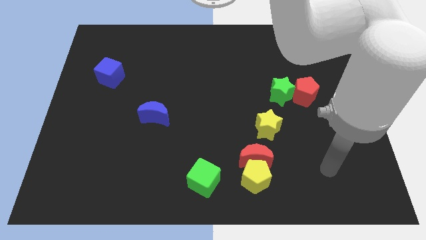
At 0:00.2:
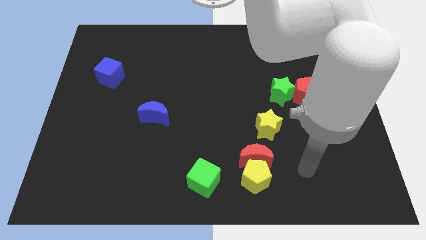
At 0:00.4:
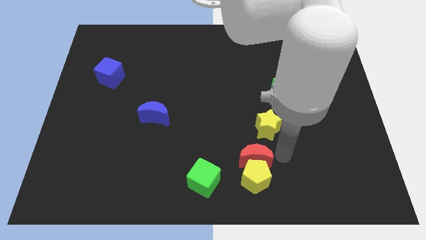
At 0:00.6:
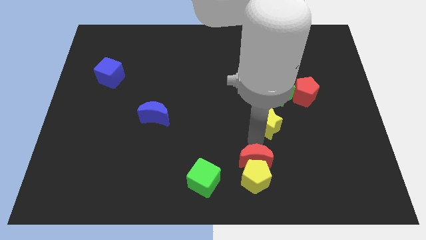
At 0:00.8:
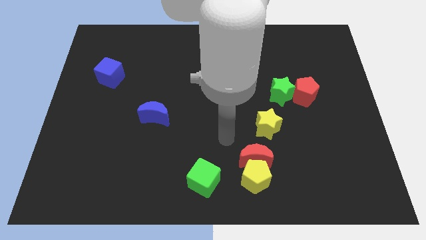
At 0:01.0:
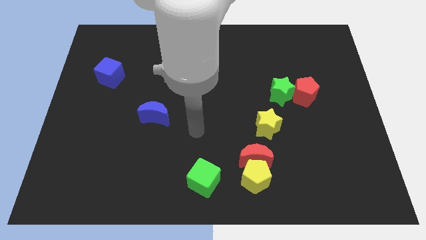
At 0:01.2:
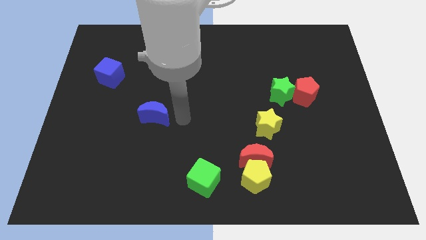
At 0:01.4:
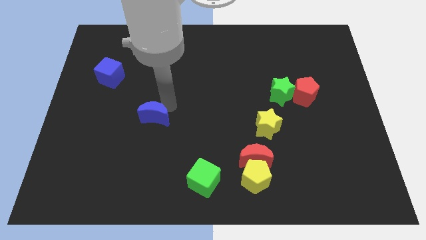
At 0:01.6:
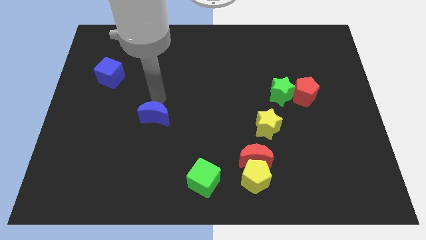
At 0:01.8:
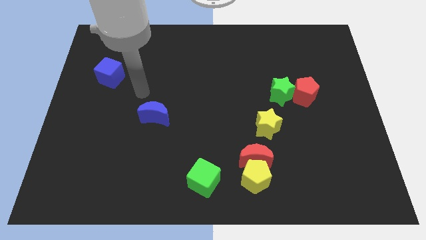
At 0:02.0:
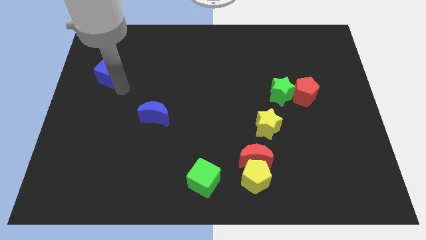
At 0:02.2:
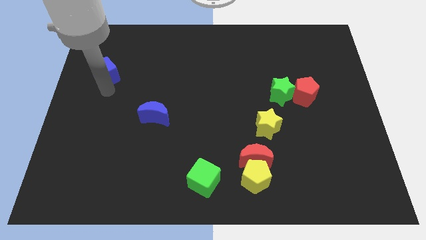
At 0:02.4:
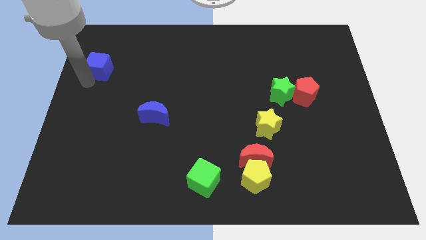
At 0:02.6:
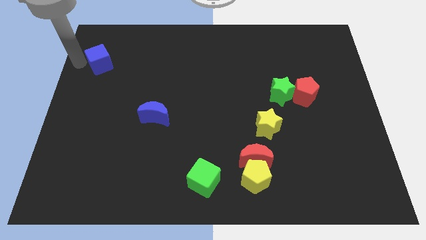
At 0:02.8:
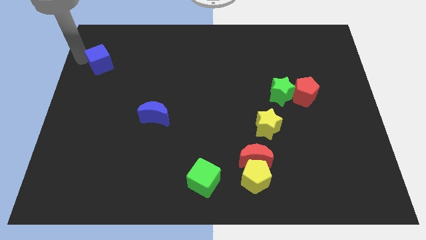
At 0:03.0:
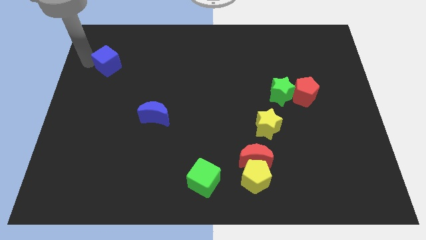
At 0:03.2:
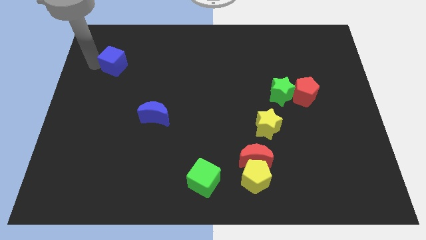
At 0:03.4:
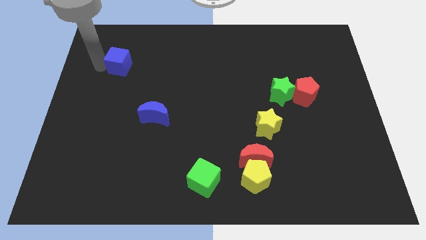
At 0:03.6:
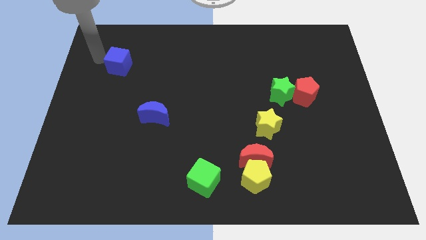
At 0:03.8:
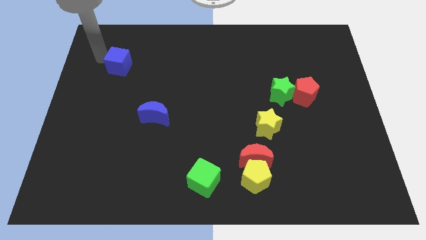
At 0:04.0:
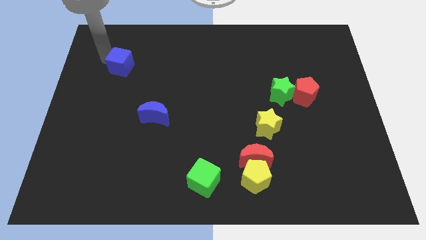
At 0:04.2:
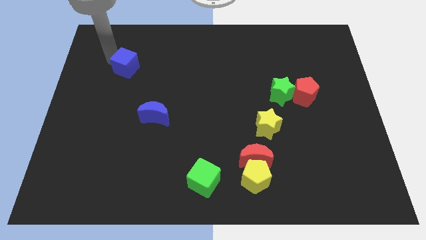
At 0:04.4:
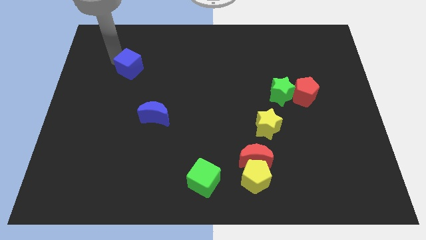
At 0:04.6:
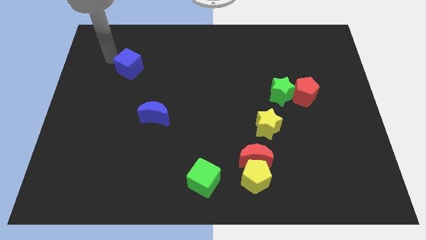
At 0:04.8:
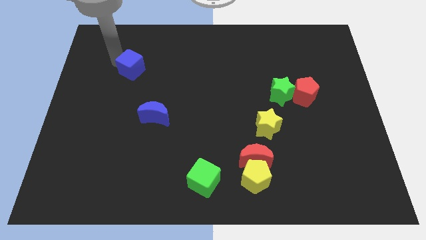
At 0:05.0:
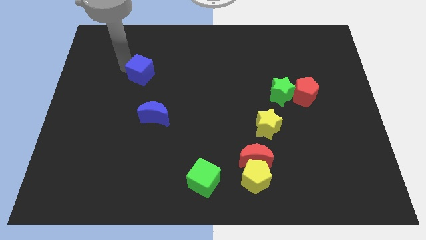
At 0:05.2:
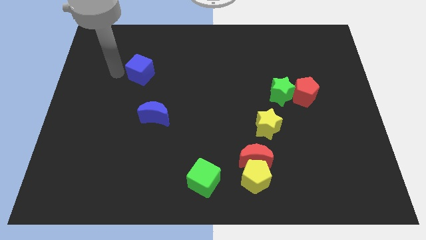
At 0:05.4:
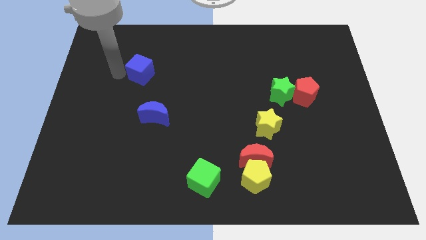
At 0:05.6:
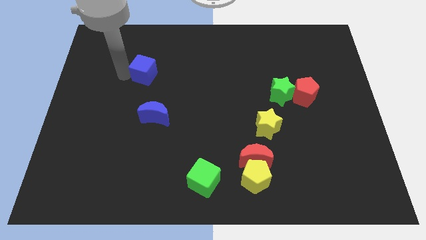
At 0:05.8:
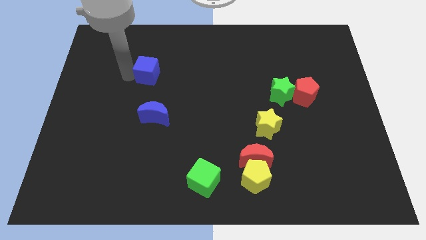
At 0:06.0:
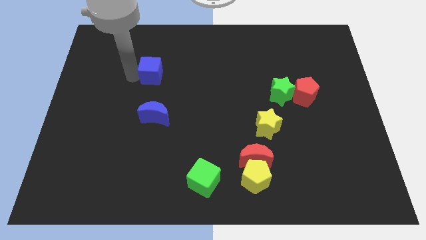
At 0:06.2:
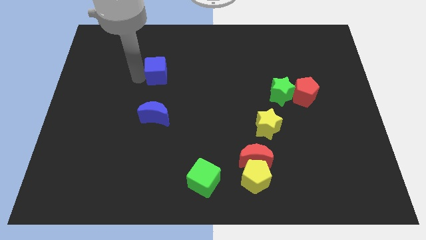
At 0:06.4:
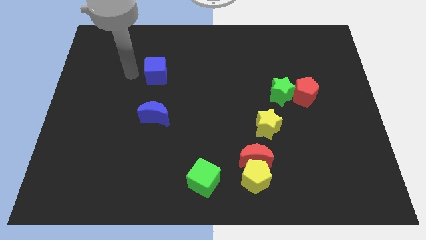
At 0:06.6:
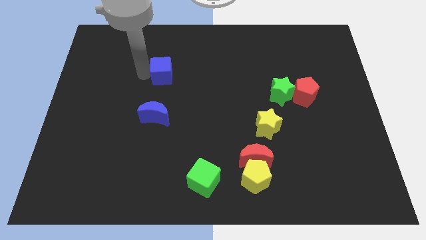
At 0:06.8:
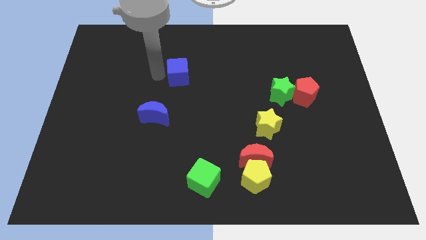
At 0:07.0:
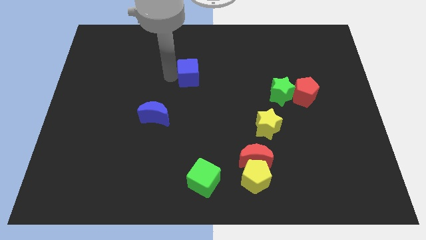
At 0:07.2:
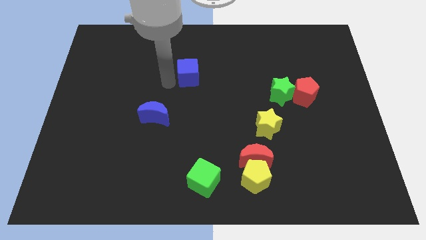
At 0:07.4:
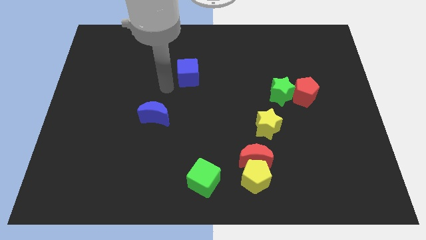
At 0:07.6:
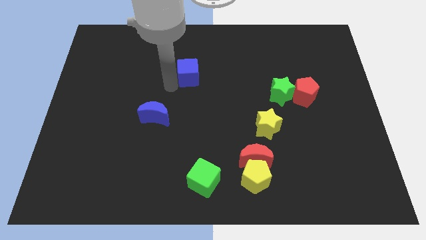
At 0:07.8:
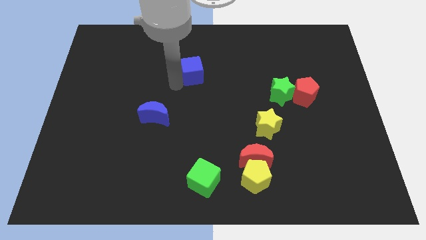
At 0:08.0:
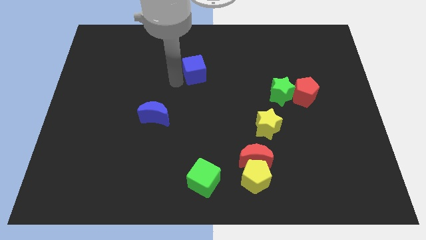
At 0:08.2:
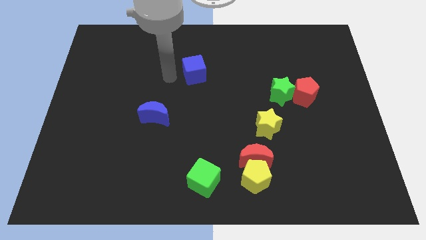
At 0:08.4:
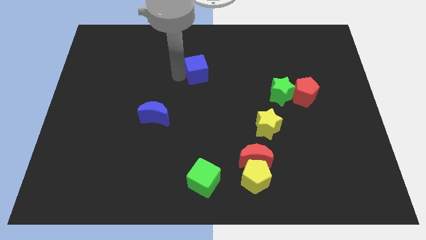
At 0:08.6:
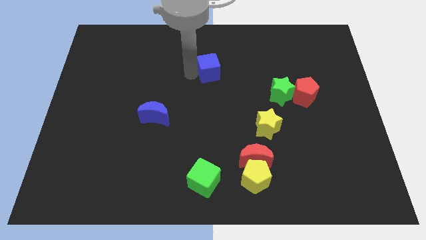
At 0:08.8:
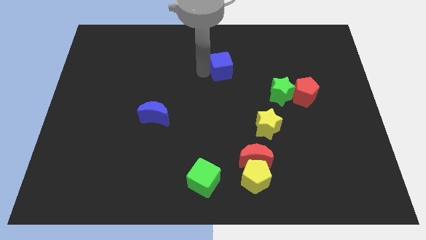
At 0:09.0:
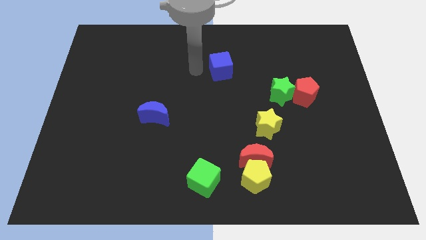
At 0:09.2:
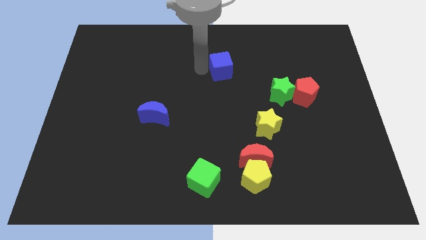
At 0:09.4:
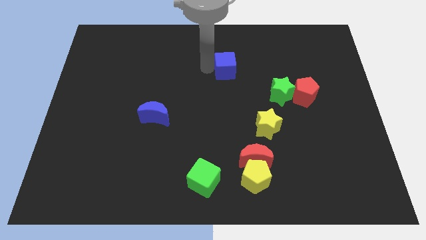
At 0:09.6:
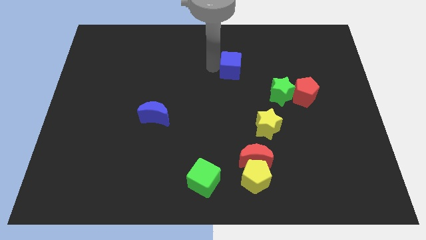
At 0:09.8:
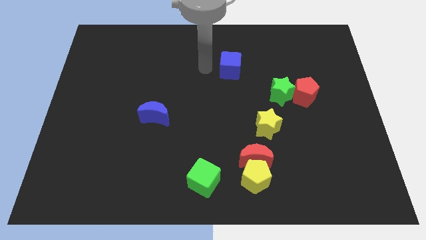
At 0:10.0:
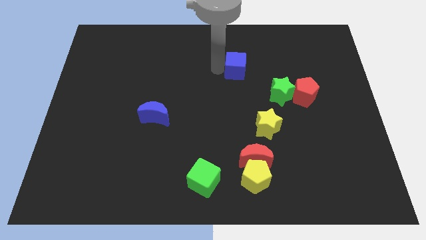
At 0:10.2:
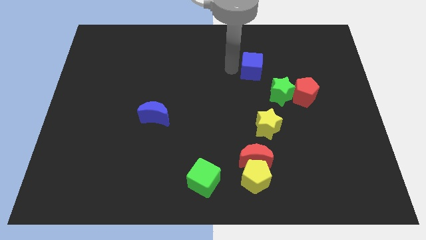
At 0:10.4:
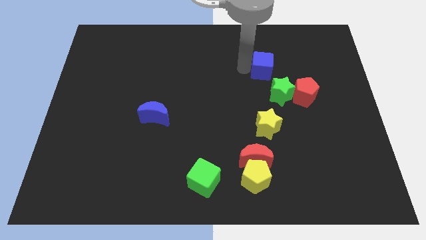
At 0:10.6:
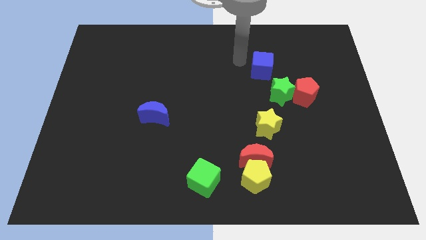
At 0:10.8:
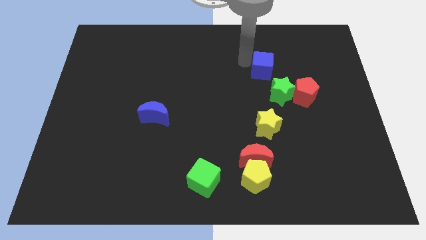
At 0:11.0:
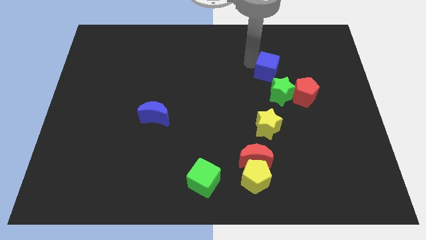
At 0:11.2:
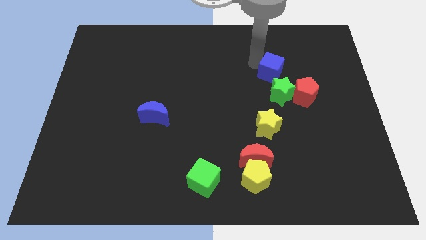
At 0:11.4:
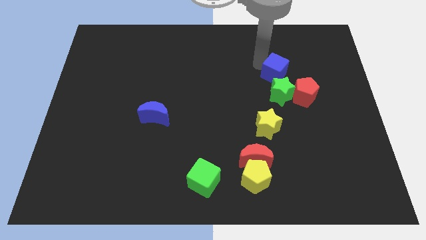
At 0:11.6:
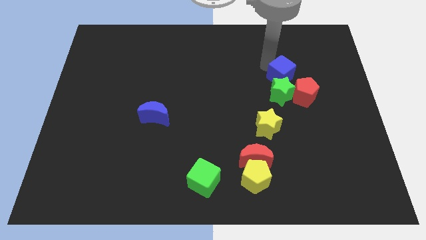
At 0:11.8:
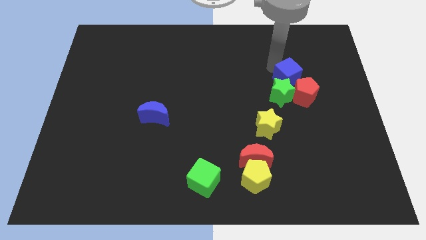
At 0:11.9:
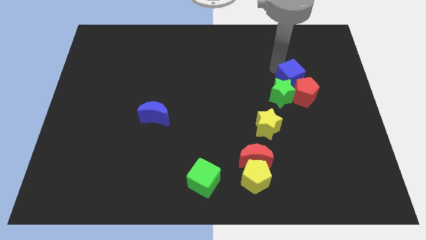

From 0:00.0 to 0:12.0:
push the blue cube next to the red pentagon

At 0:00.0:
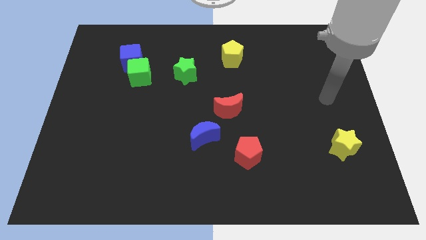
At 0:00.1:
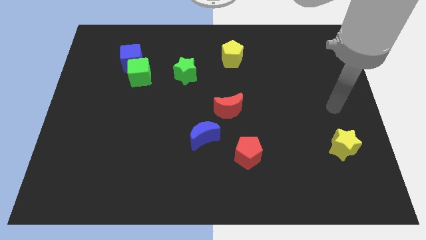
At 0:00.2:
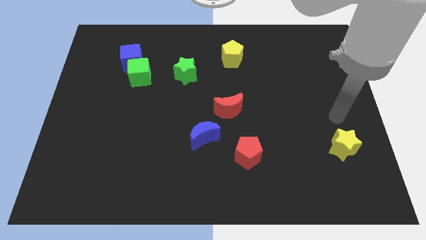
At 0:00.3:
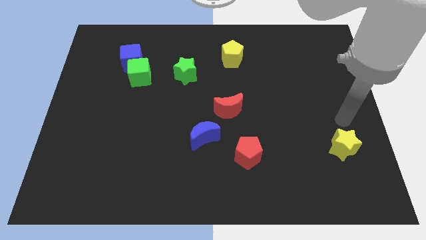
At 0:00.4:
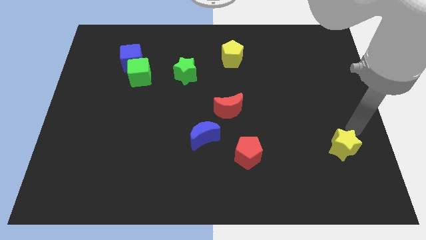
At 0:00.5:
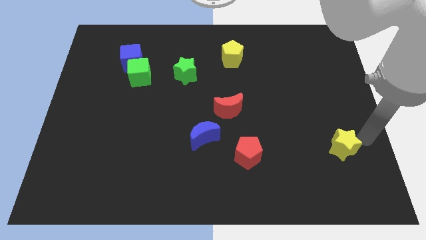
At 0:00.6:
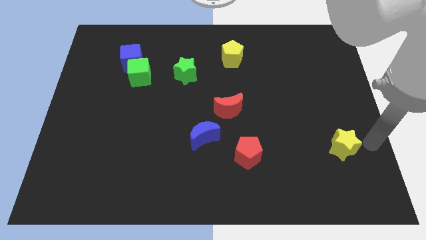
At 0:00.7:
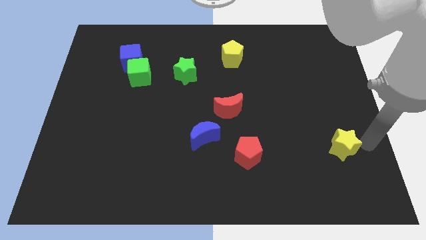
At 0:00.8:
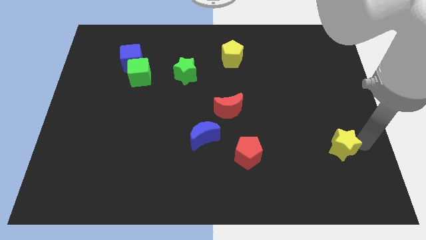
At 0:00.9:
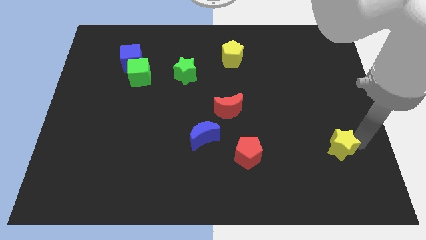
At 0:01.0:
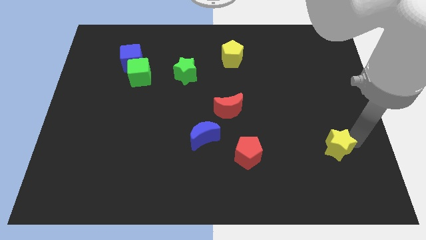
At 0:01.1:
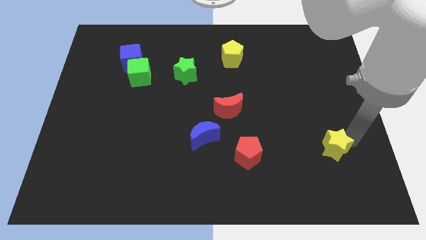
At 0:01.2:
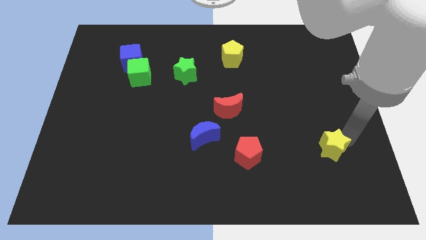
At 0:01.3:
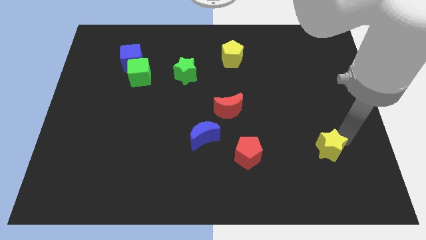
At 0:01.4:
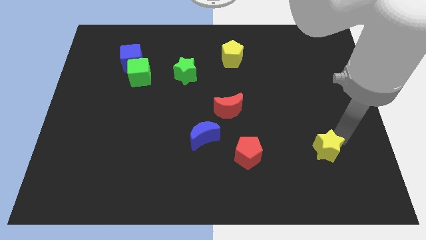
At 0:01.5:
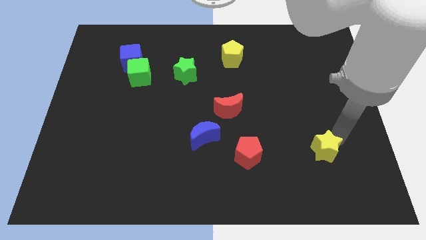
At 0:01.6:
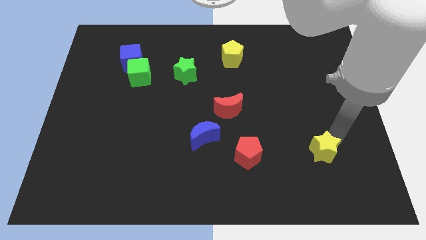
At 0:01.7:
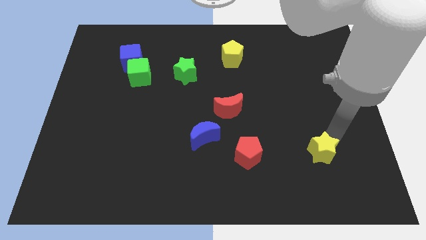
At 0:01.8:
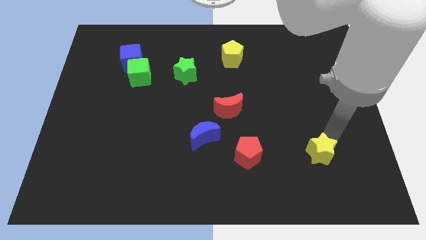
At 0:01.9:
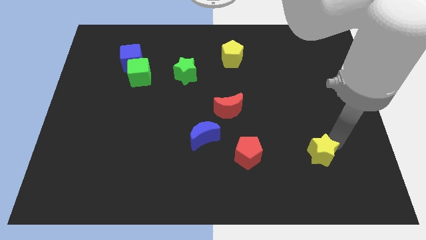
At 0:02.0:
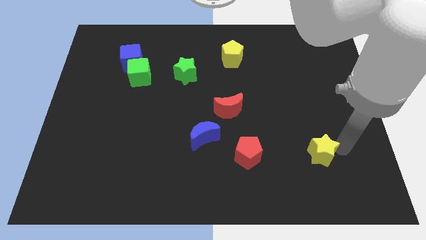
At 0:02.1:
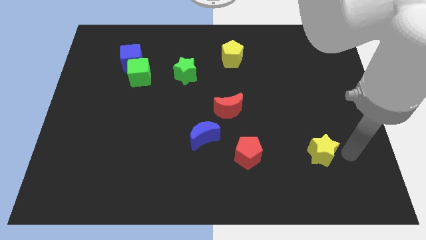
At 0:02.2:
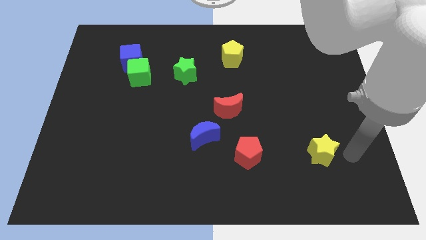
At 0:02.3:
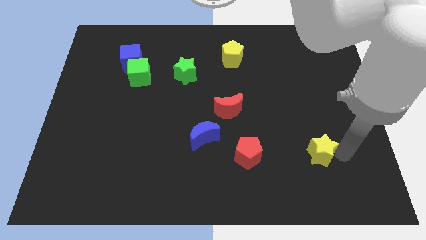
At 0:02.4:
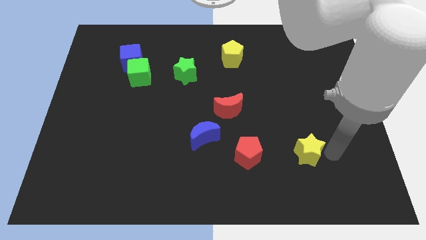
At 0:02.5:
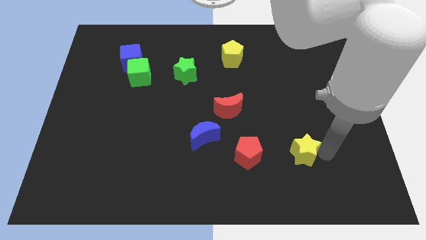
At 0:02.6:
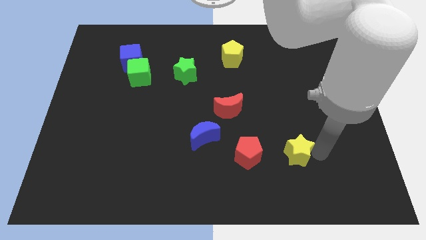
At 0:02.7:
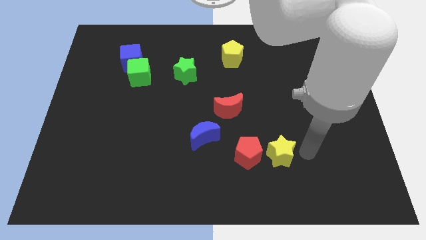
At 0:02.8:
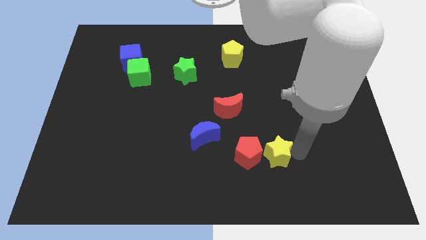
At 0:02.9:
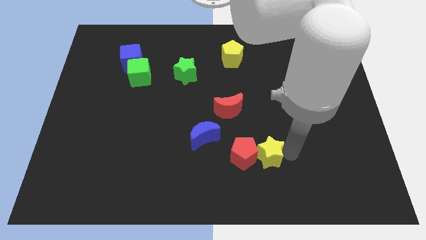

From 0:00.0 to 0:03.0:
push the yellow star next to the red pentagon
